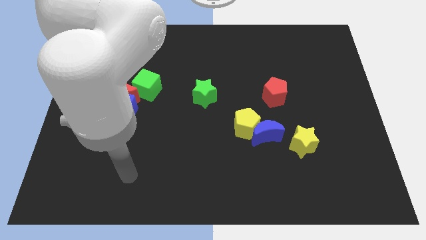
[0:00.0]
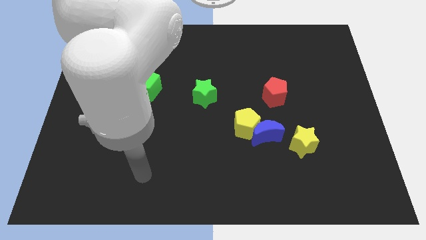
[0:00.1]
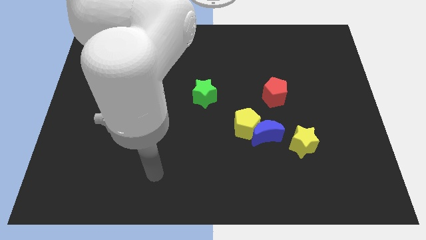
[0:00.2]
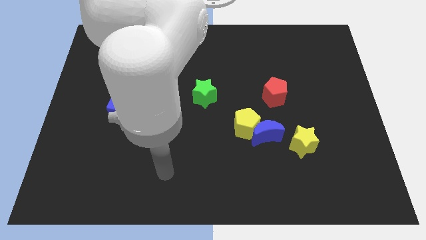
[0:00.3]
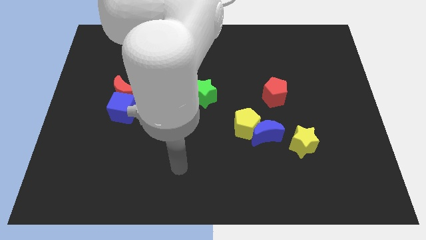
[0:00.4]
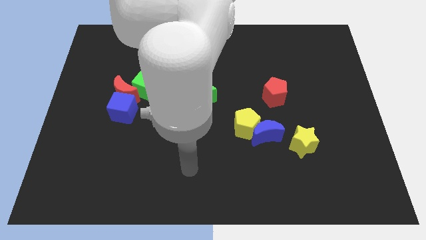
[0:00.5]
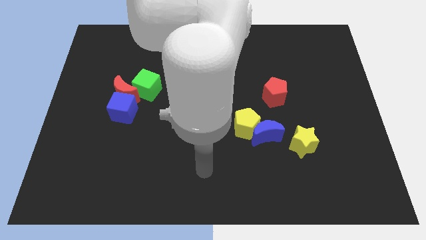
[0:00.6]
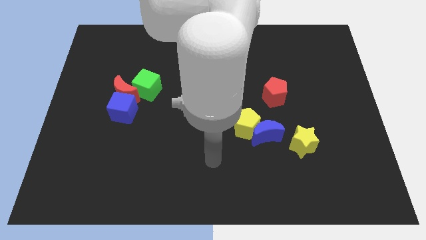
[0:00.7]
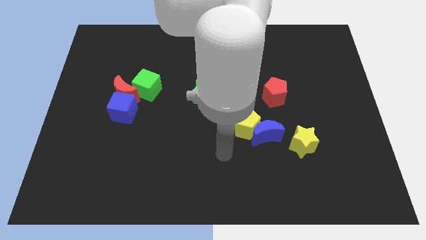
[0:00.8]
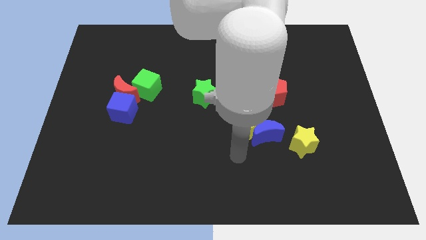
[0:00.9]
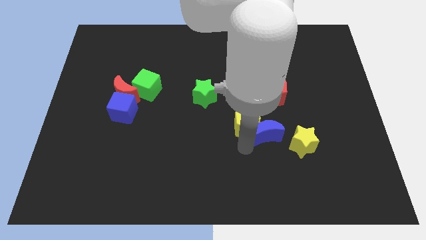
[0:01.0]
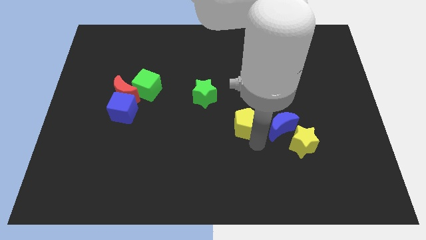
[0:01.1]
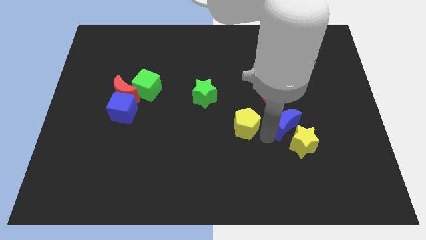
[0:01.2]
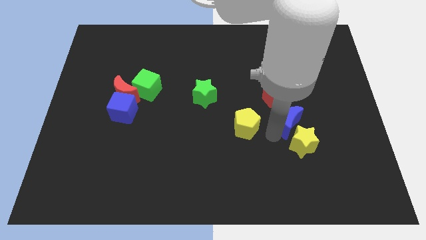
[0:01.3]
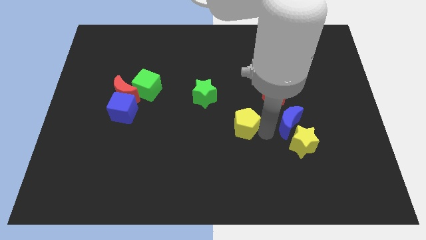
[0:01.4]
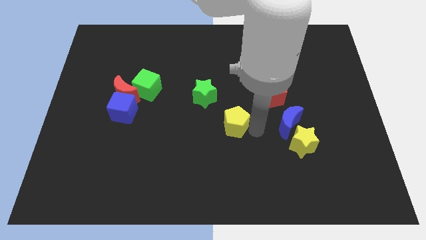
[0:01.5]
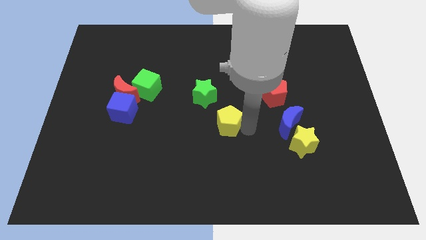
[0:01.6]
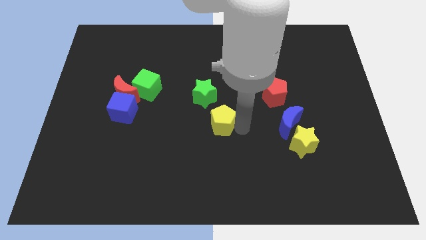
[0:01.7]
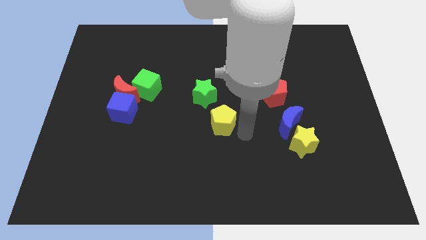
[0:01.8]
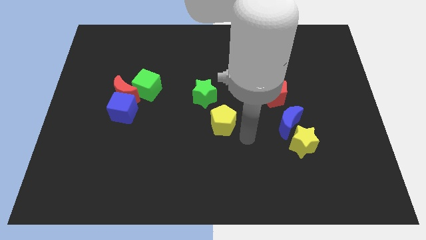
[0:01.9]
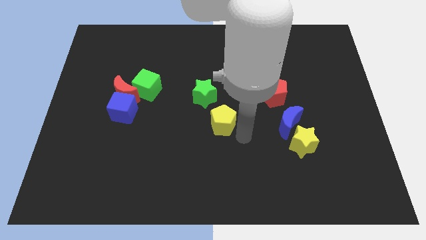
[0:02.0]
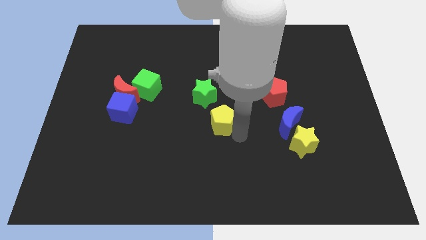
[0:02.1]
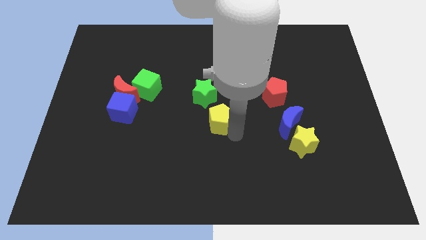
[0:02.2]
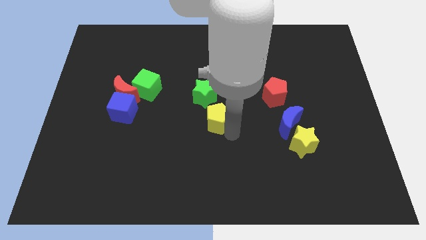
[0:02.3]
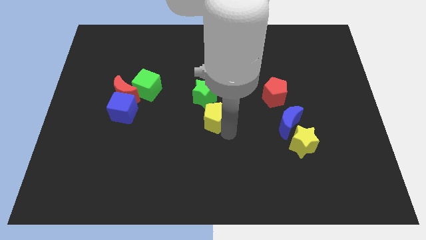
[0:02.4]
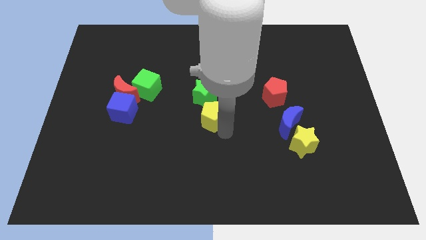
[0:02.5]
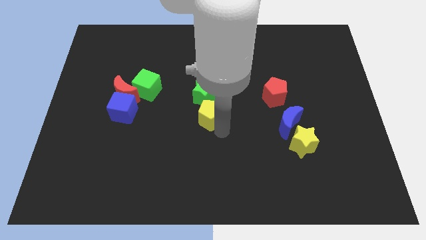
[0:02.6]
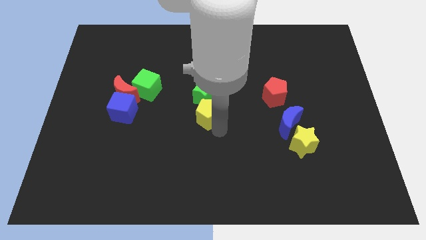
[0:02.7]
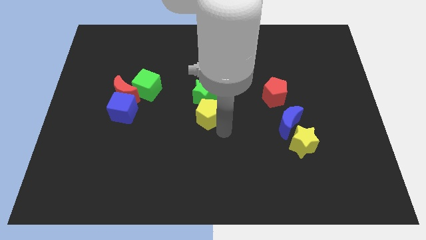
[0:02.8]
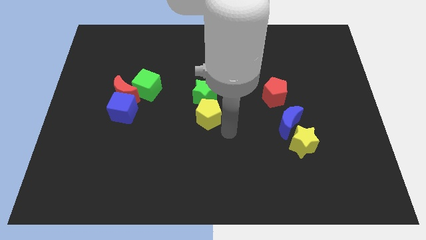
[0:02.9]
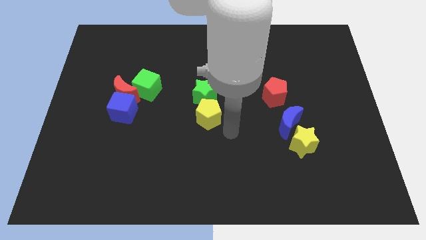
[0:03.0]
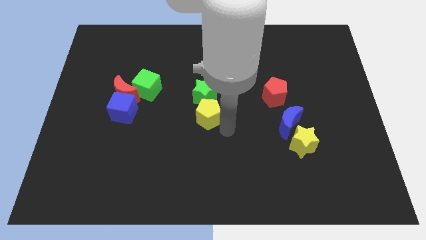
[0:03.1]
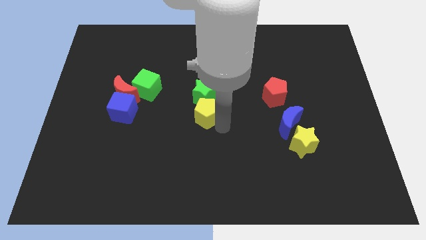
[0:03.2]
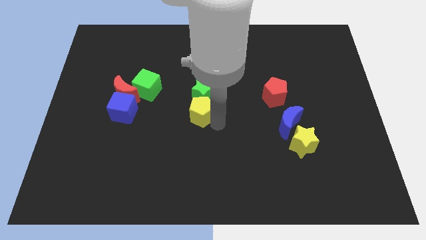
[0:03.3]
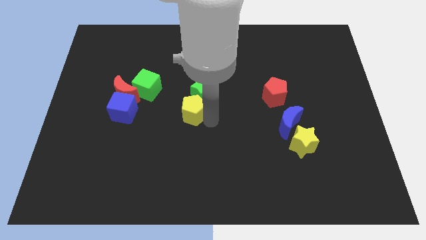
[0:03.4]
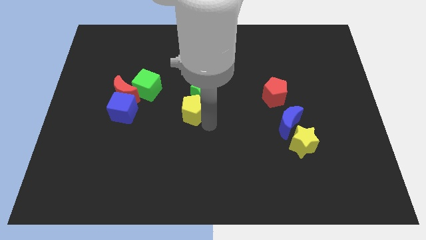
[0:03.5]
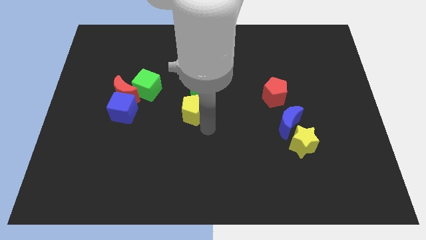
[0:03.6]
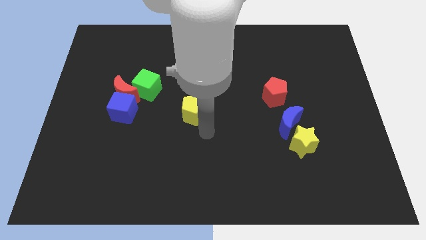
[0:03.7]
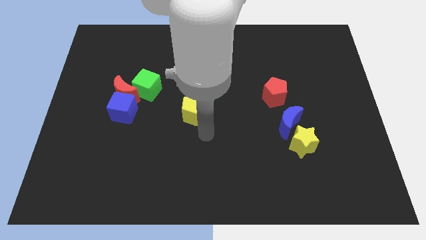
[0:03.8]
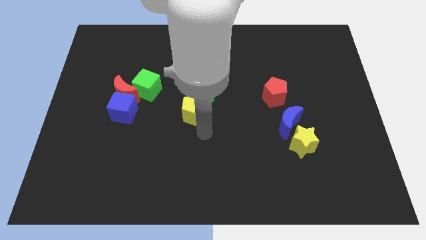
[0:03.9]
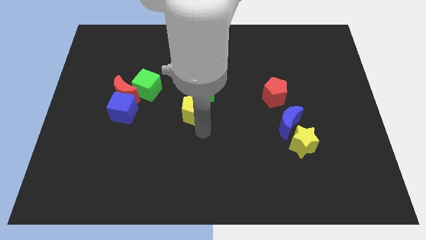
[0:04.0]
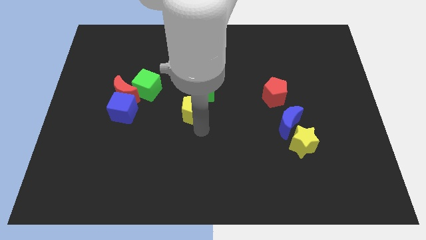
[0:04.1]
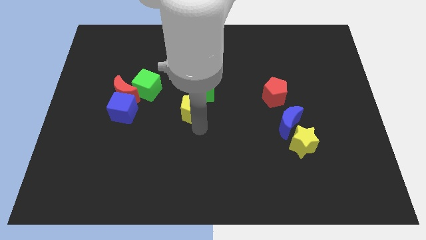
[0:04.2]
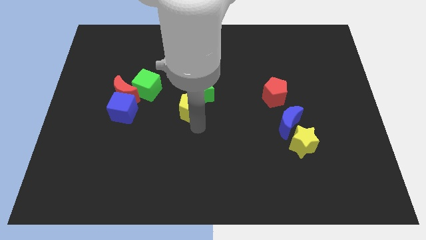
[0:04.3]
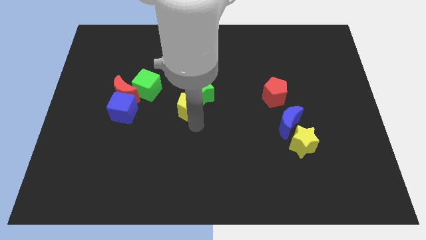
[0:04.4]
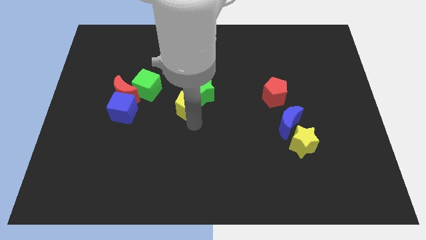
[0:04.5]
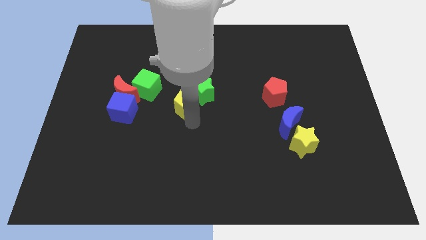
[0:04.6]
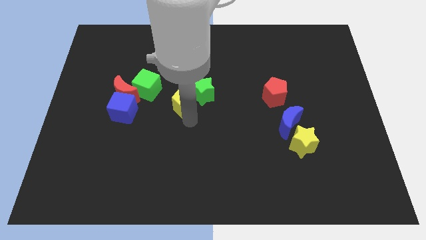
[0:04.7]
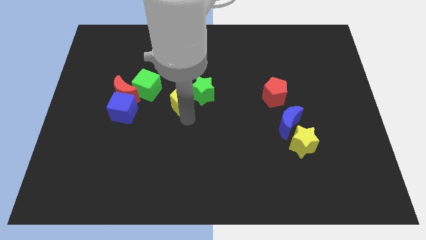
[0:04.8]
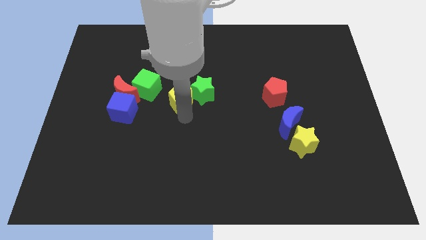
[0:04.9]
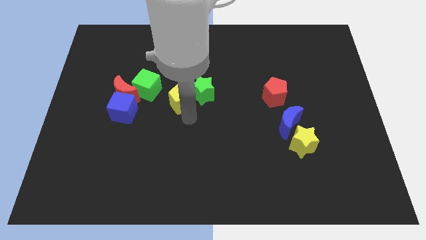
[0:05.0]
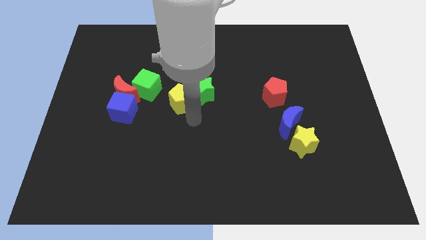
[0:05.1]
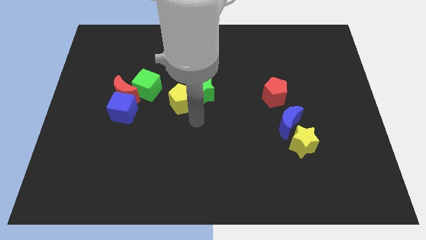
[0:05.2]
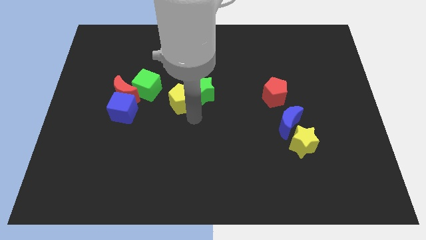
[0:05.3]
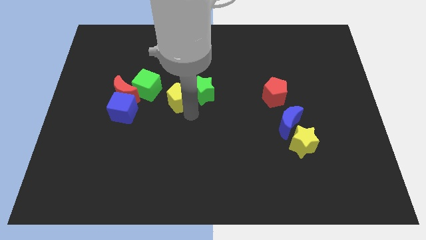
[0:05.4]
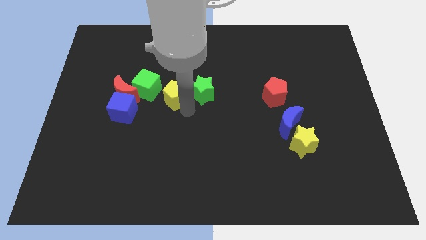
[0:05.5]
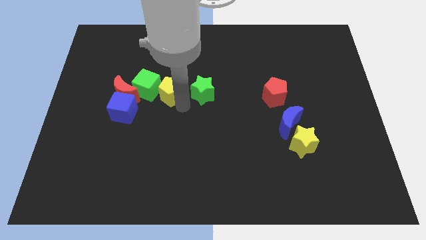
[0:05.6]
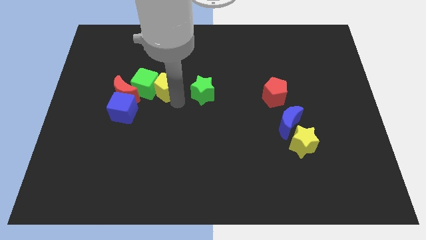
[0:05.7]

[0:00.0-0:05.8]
move the yellow pentagon up and to the left diagonally

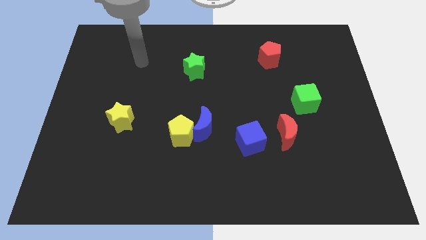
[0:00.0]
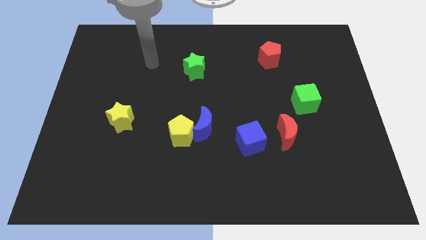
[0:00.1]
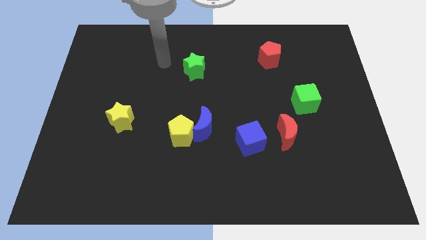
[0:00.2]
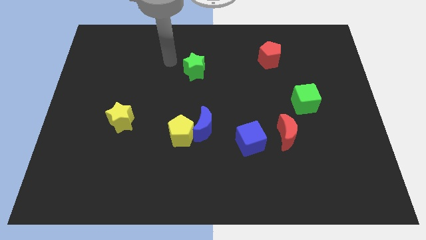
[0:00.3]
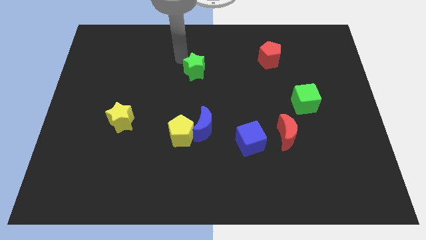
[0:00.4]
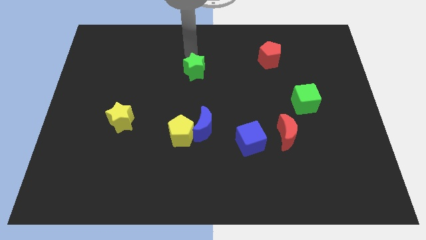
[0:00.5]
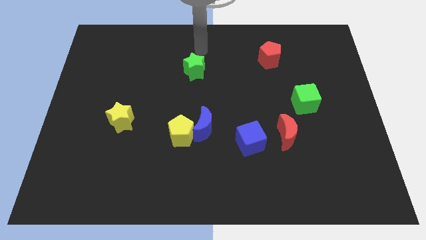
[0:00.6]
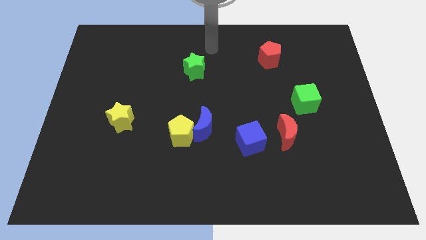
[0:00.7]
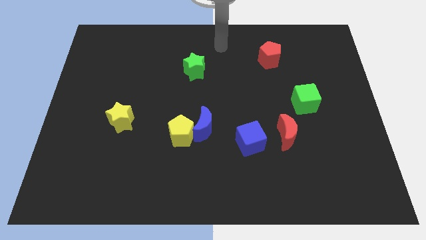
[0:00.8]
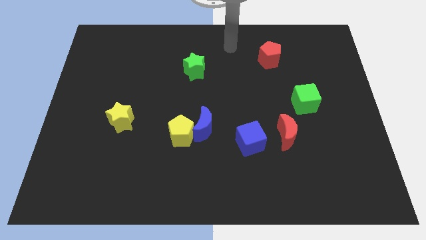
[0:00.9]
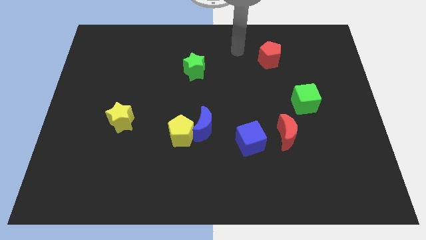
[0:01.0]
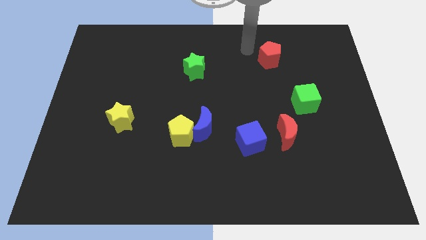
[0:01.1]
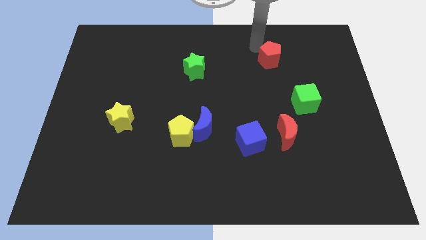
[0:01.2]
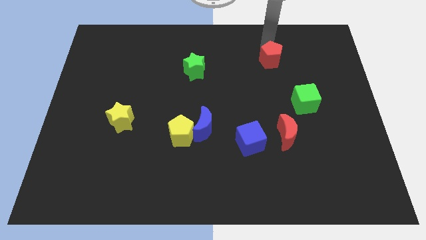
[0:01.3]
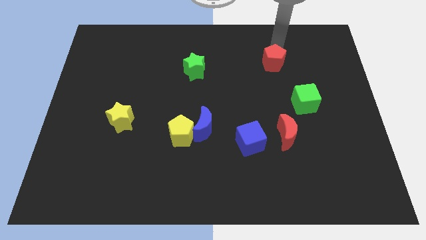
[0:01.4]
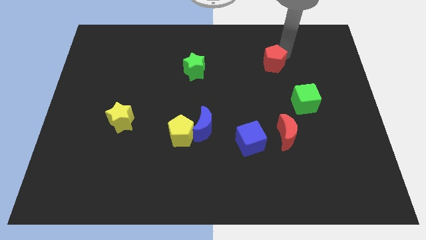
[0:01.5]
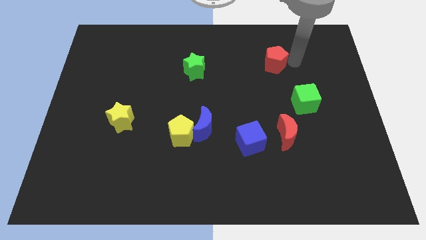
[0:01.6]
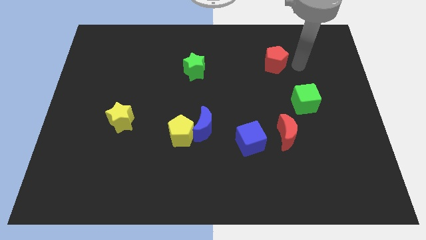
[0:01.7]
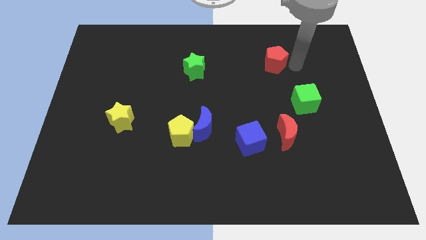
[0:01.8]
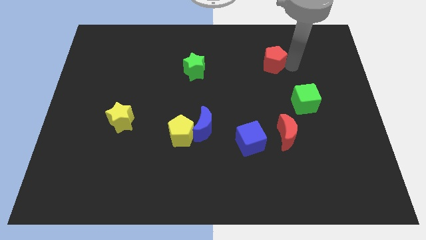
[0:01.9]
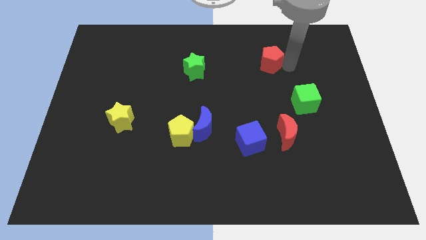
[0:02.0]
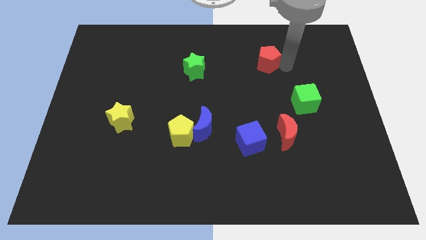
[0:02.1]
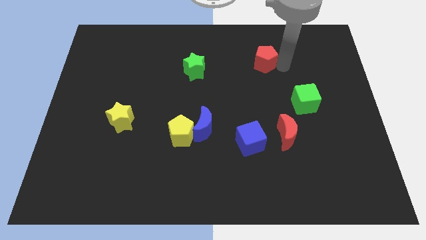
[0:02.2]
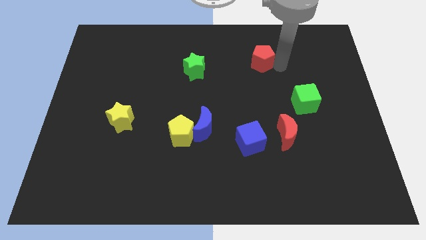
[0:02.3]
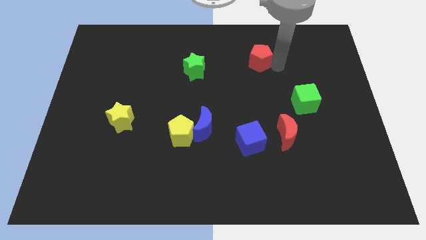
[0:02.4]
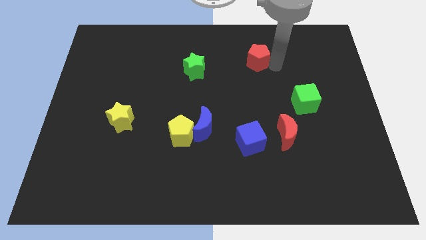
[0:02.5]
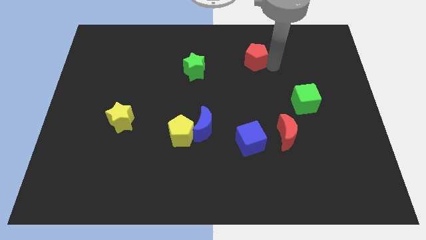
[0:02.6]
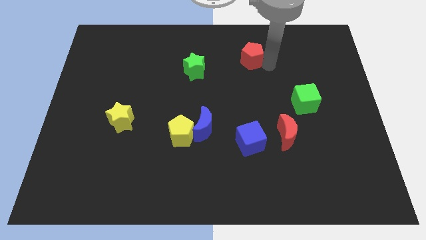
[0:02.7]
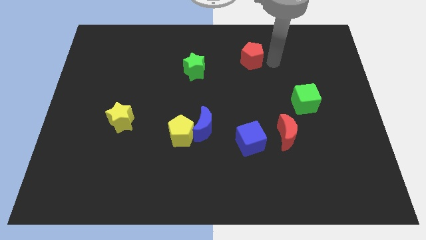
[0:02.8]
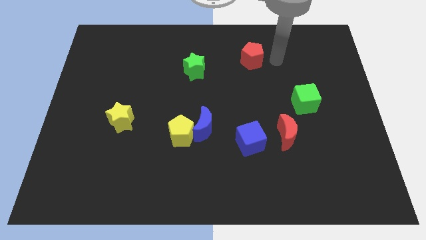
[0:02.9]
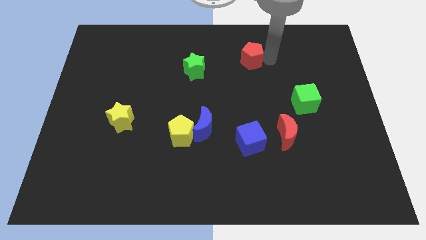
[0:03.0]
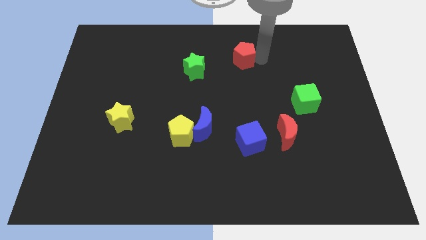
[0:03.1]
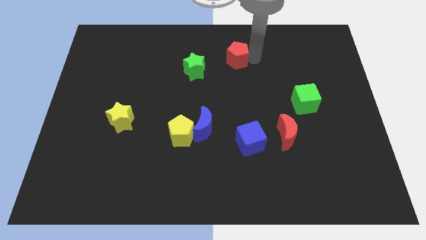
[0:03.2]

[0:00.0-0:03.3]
push the red pentagon left a little bit
